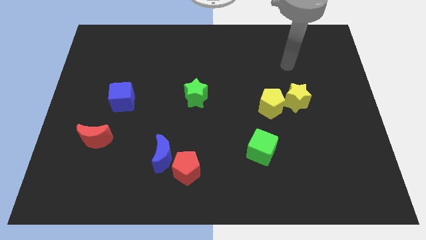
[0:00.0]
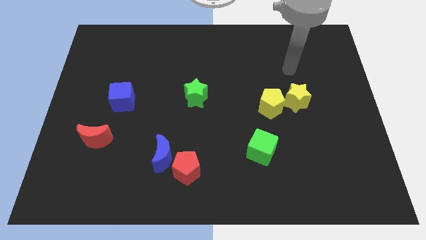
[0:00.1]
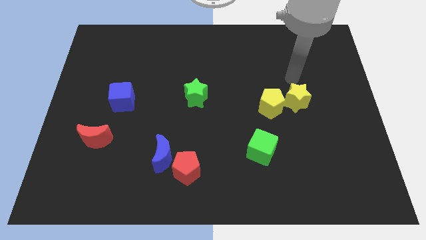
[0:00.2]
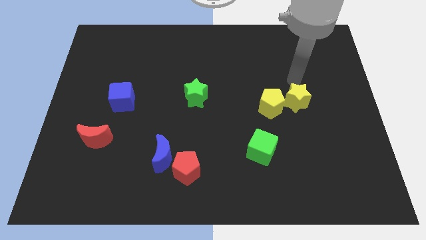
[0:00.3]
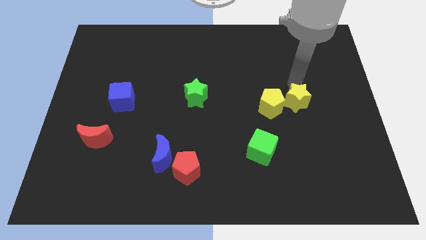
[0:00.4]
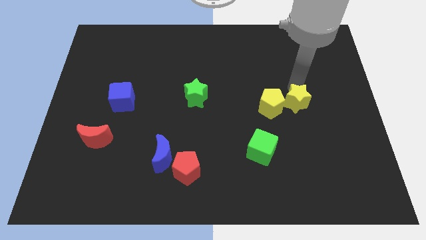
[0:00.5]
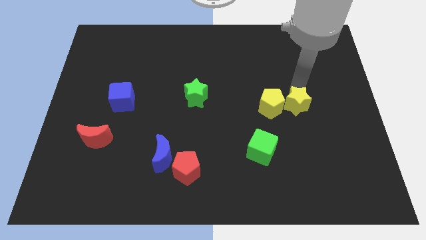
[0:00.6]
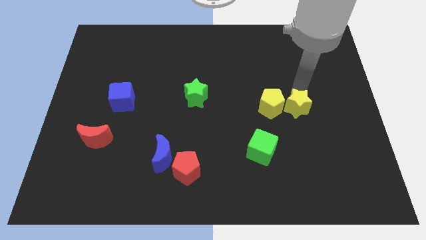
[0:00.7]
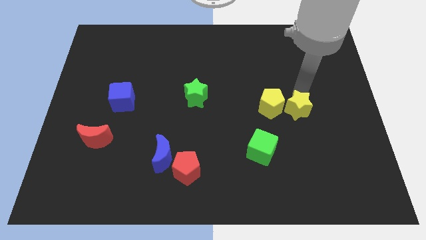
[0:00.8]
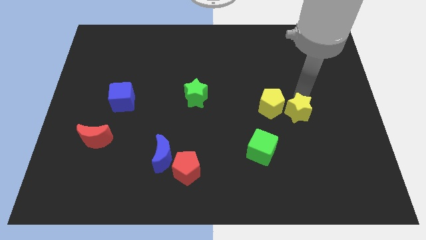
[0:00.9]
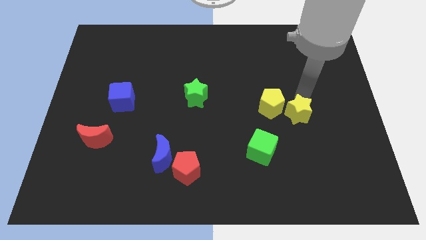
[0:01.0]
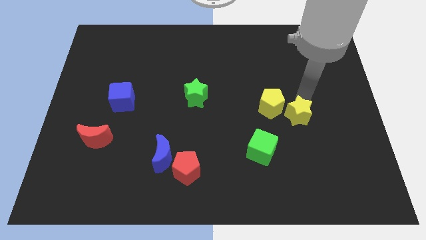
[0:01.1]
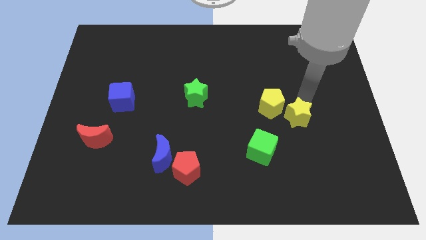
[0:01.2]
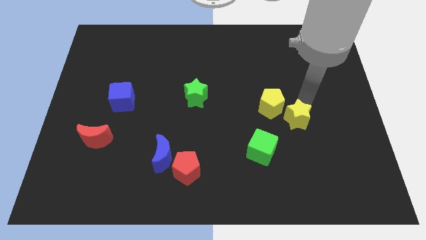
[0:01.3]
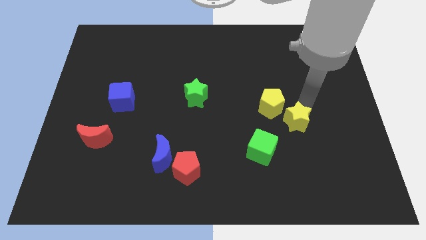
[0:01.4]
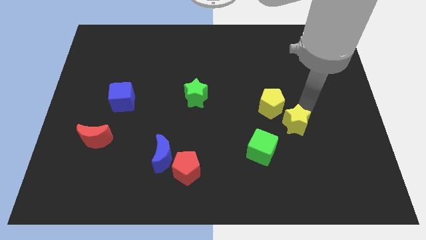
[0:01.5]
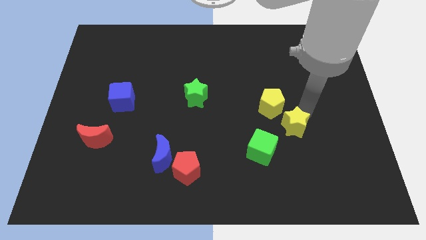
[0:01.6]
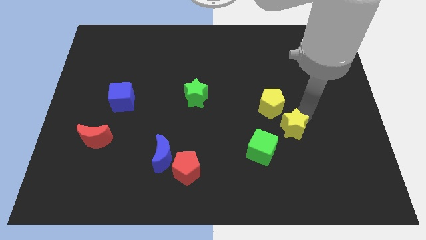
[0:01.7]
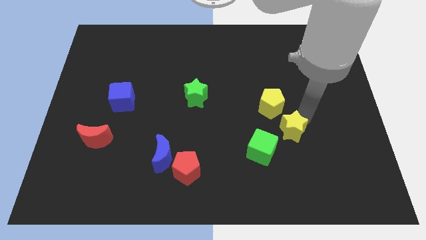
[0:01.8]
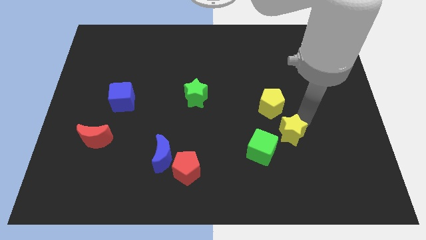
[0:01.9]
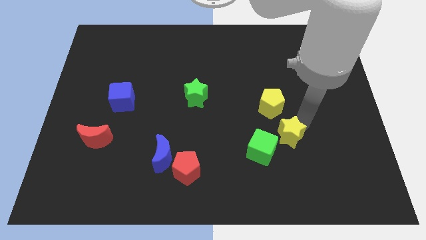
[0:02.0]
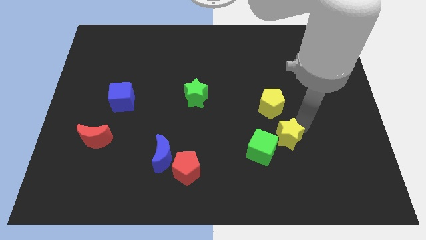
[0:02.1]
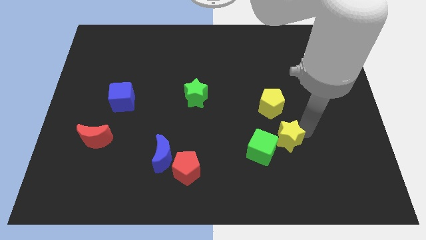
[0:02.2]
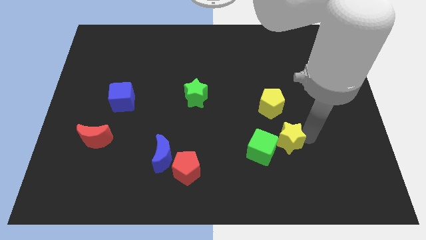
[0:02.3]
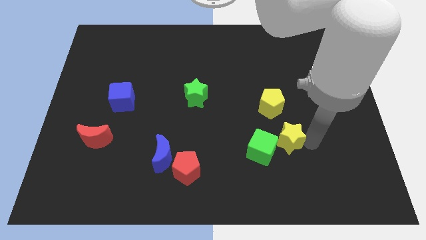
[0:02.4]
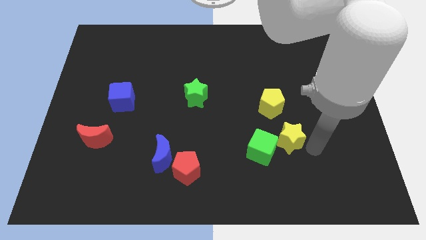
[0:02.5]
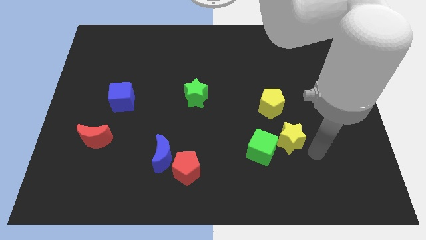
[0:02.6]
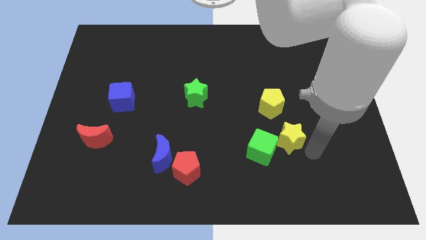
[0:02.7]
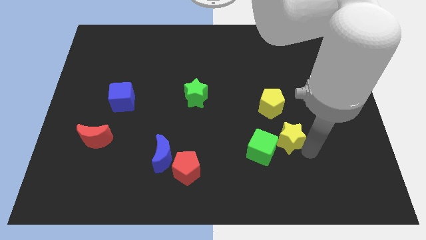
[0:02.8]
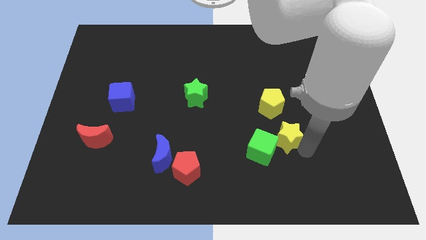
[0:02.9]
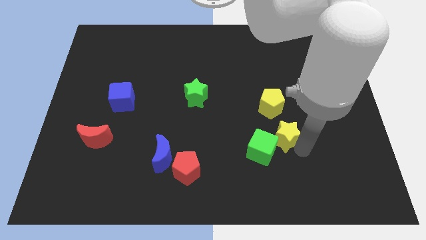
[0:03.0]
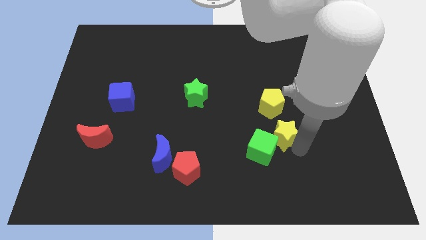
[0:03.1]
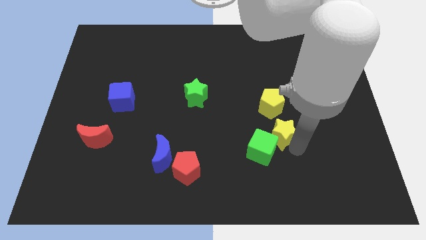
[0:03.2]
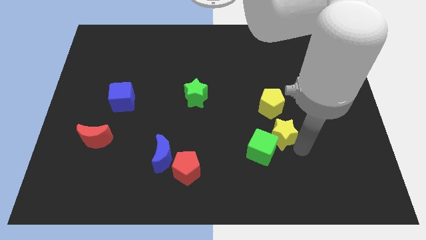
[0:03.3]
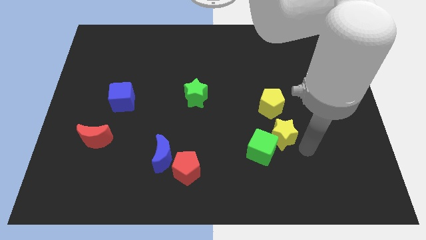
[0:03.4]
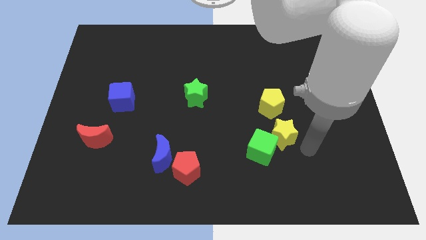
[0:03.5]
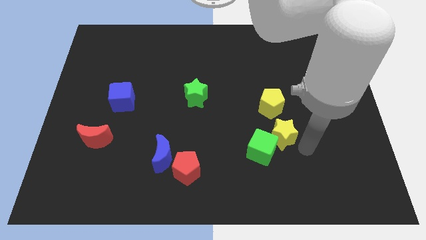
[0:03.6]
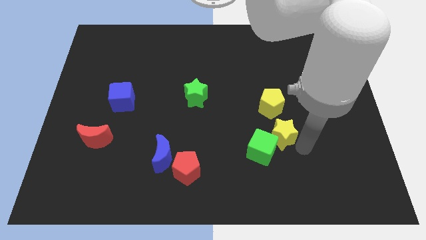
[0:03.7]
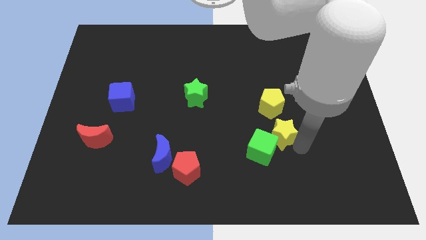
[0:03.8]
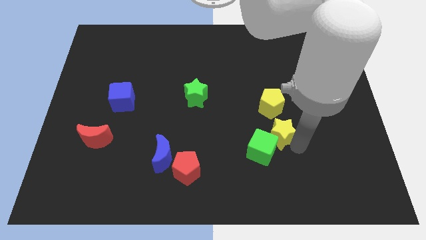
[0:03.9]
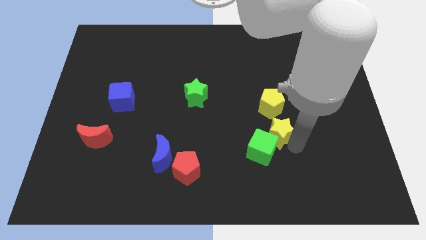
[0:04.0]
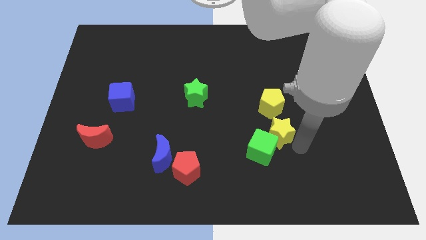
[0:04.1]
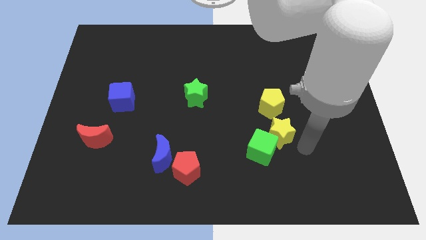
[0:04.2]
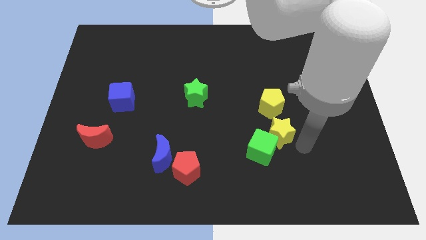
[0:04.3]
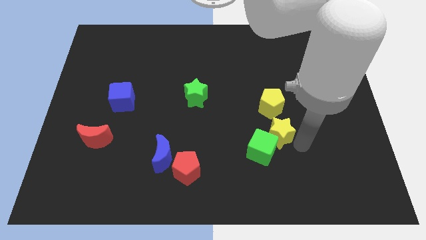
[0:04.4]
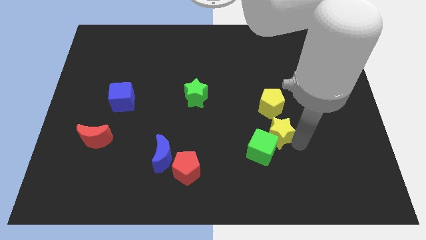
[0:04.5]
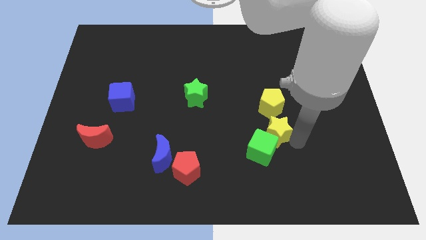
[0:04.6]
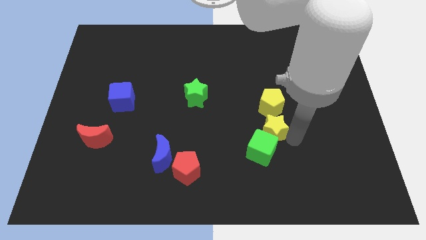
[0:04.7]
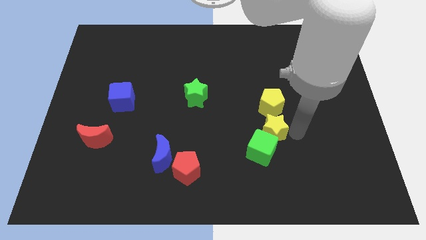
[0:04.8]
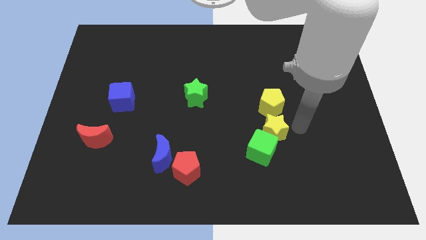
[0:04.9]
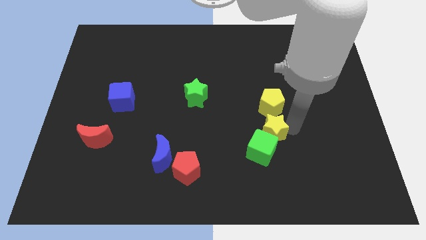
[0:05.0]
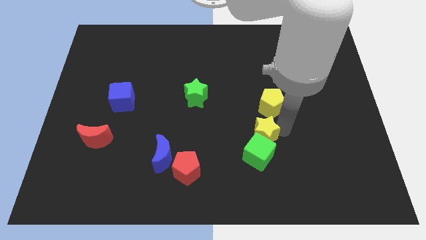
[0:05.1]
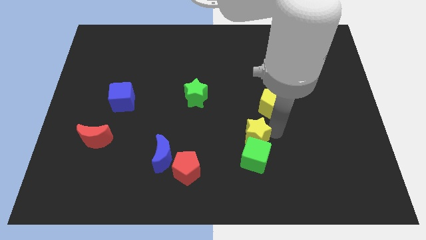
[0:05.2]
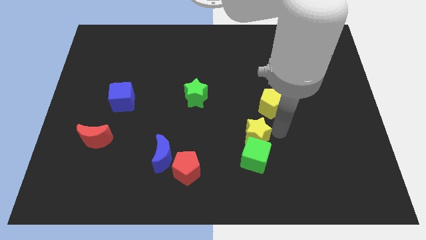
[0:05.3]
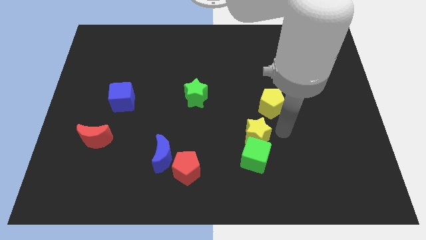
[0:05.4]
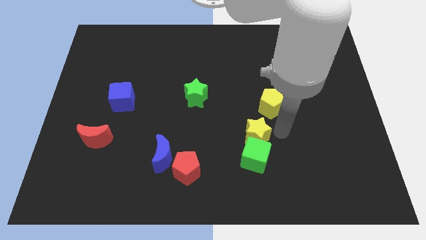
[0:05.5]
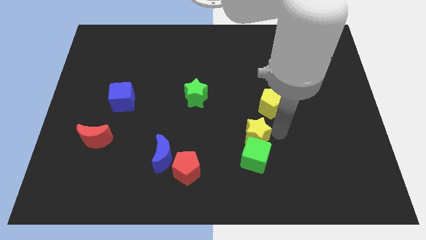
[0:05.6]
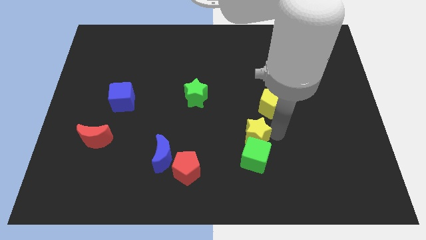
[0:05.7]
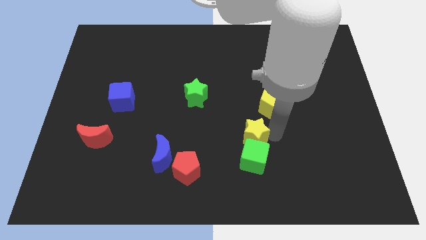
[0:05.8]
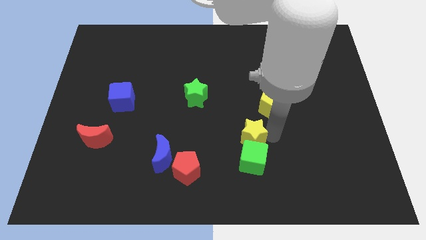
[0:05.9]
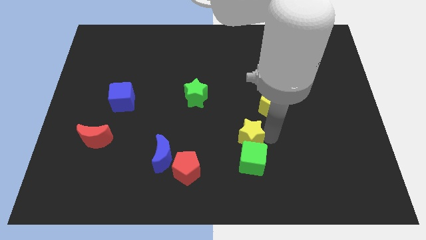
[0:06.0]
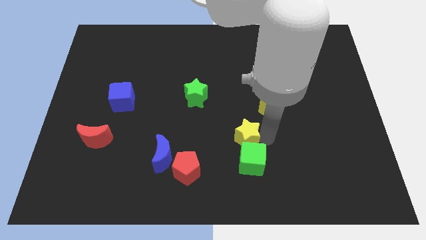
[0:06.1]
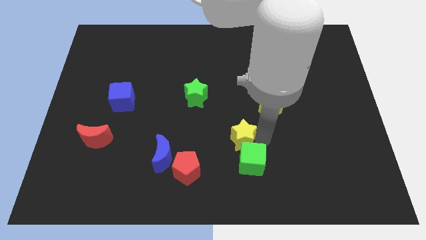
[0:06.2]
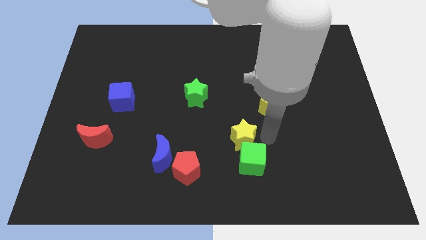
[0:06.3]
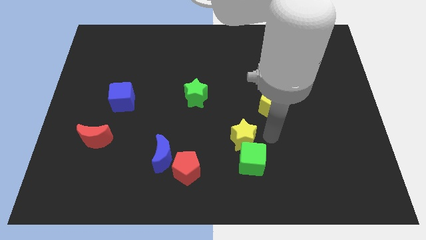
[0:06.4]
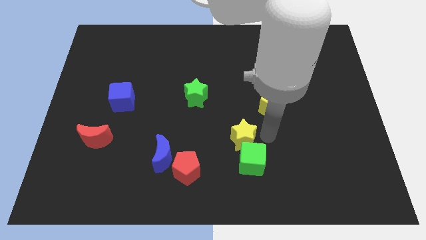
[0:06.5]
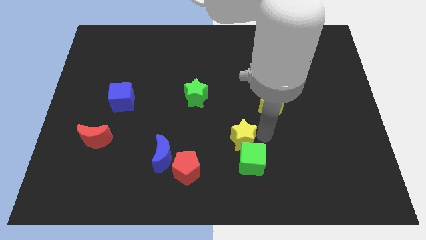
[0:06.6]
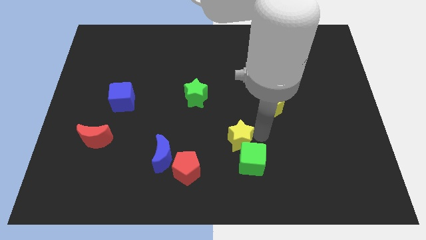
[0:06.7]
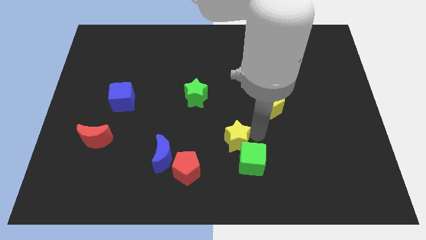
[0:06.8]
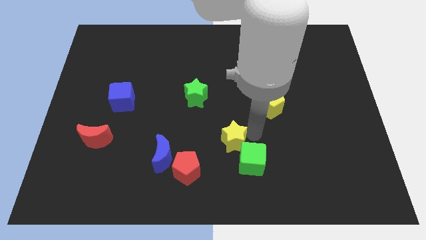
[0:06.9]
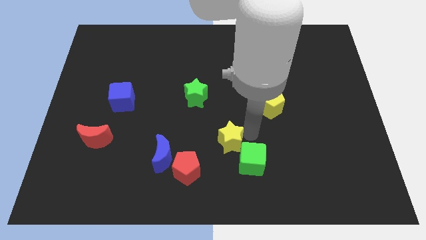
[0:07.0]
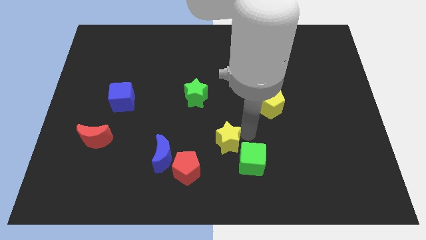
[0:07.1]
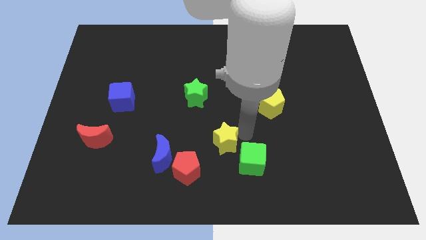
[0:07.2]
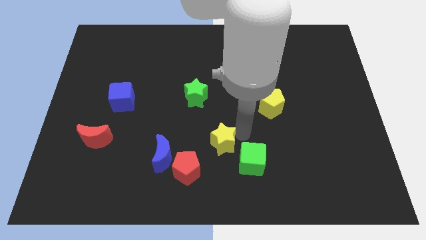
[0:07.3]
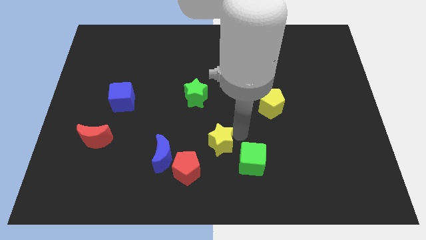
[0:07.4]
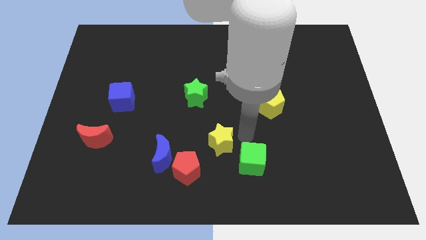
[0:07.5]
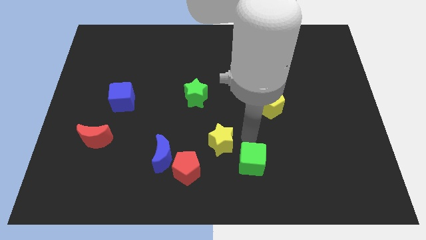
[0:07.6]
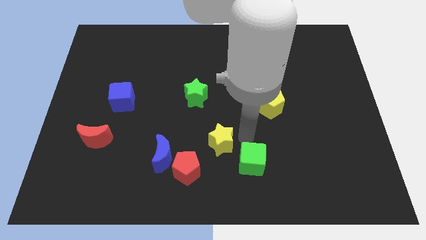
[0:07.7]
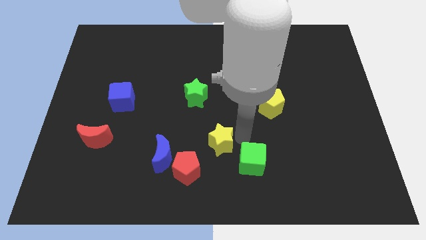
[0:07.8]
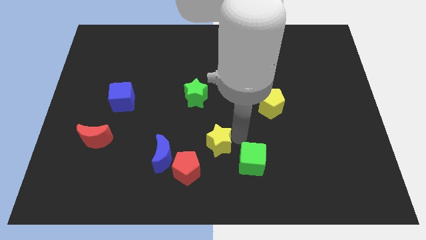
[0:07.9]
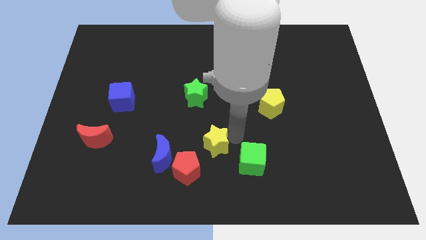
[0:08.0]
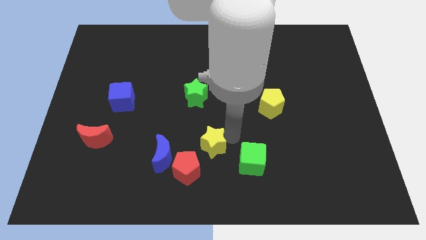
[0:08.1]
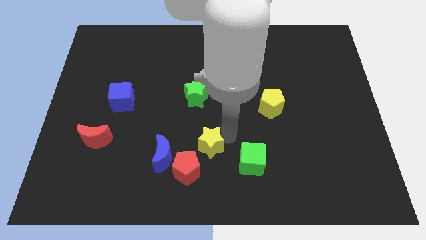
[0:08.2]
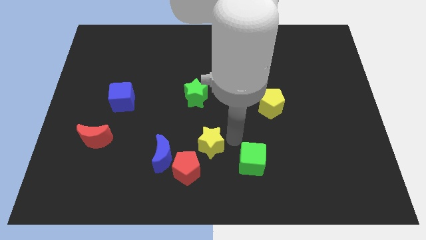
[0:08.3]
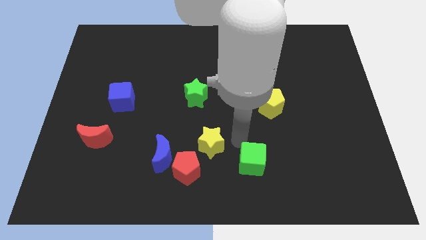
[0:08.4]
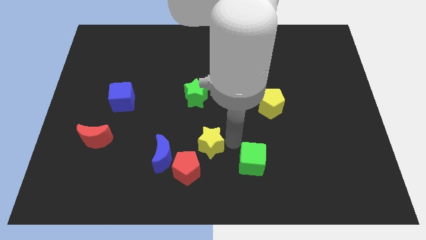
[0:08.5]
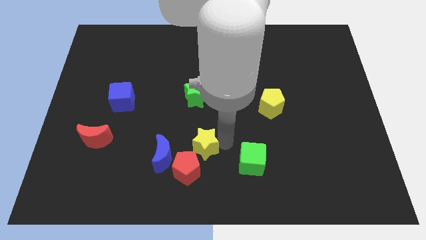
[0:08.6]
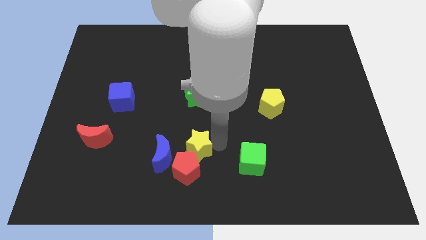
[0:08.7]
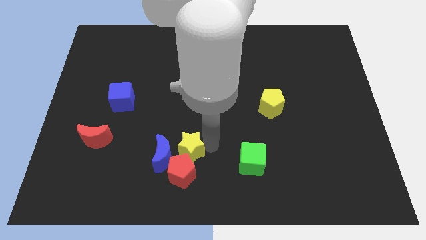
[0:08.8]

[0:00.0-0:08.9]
push the yellow star towards the blue moon
